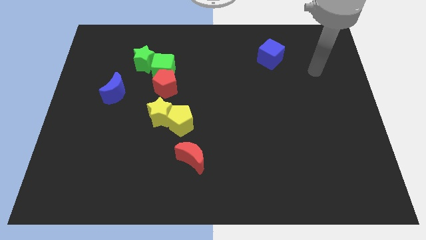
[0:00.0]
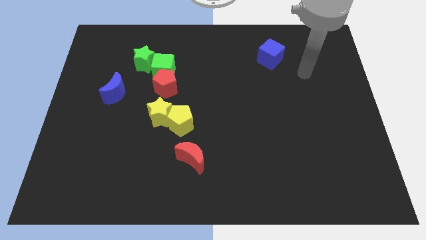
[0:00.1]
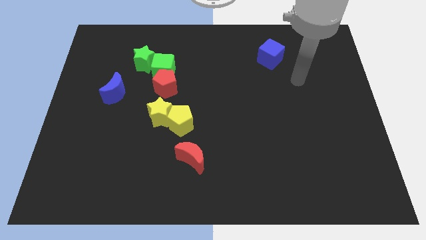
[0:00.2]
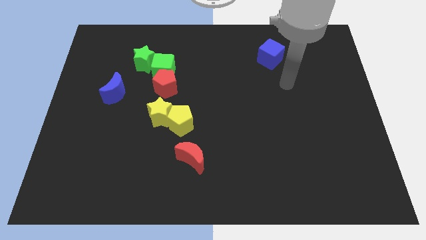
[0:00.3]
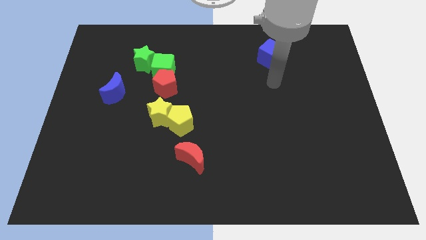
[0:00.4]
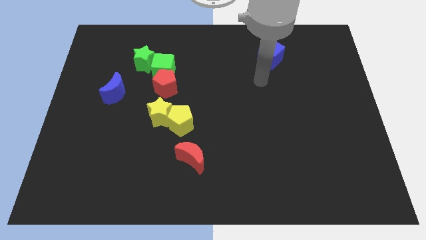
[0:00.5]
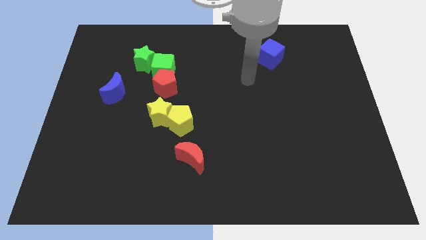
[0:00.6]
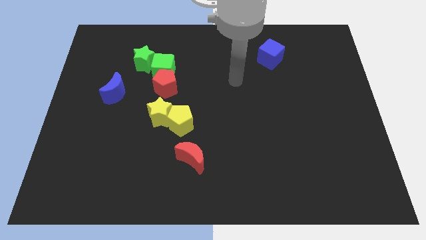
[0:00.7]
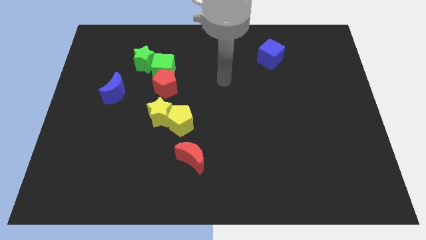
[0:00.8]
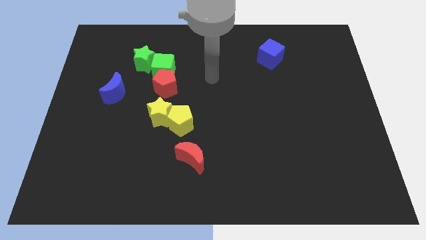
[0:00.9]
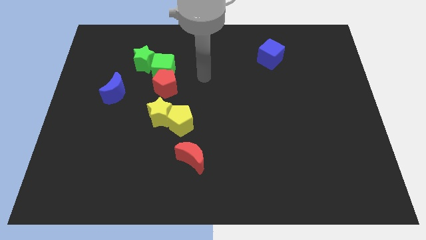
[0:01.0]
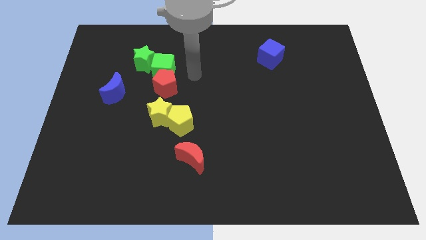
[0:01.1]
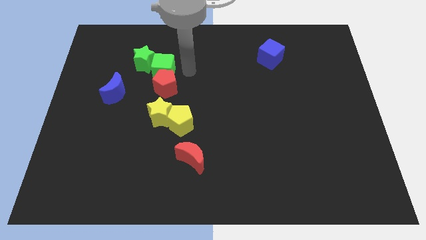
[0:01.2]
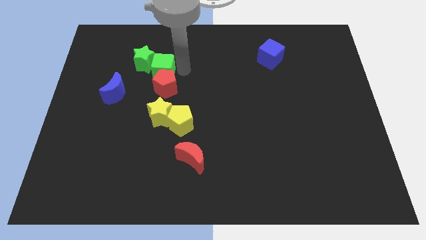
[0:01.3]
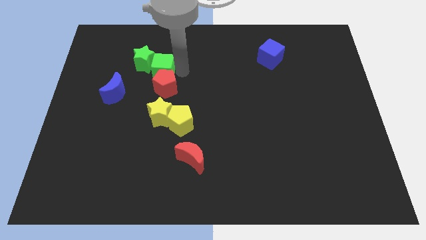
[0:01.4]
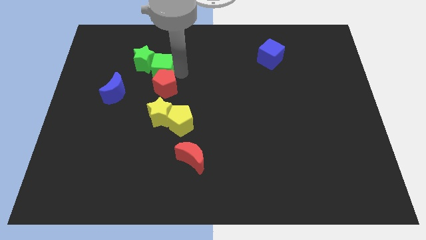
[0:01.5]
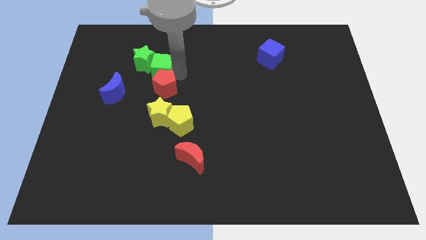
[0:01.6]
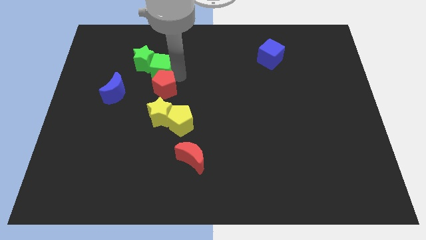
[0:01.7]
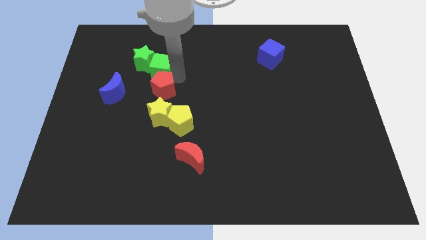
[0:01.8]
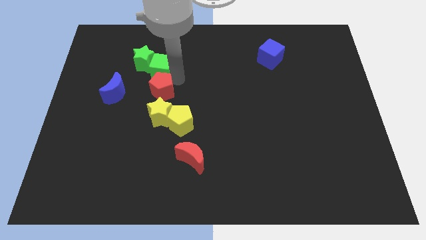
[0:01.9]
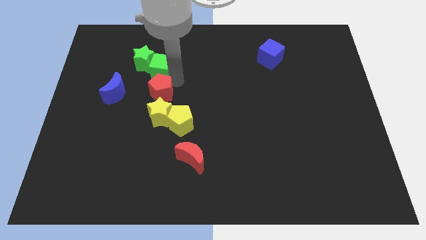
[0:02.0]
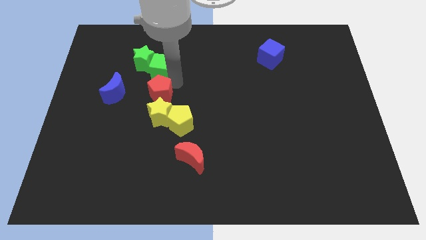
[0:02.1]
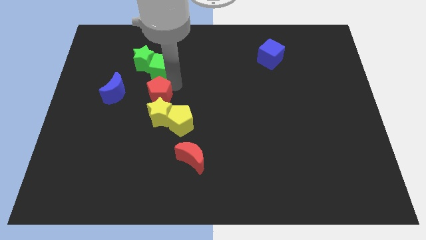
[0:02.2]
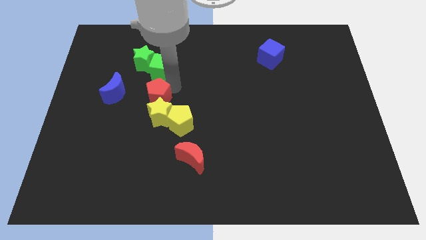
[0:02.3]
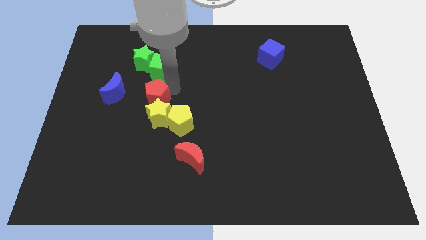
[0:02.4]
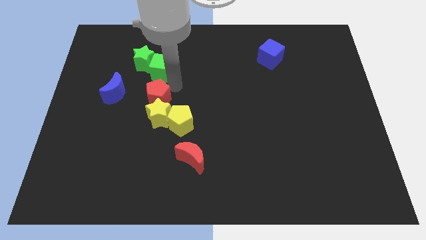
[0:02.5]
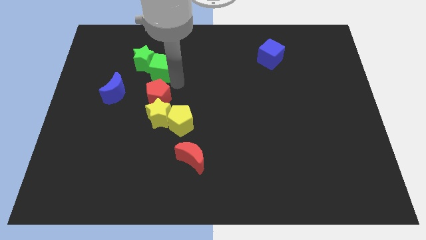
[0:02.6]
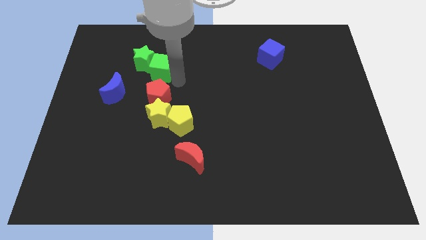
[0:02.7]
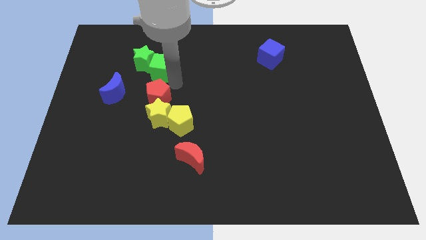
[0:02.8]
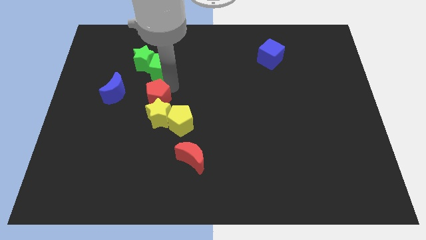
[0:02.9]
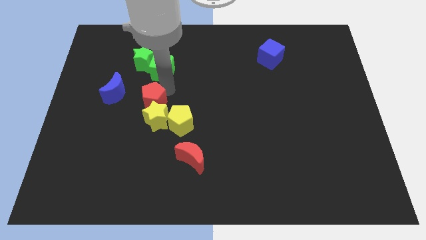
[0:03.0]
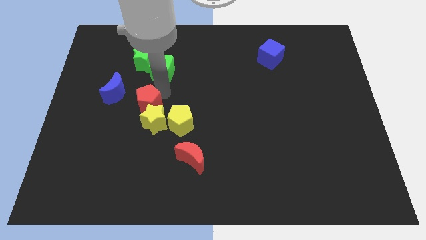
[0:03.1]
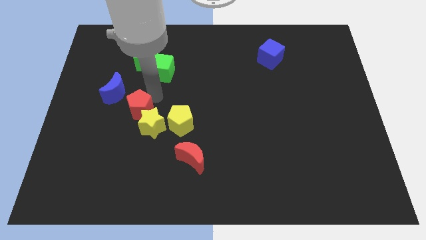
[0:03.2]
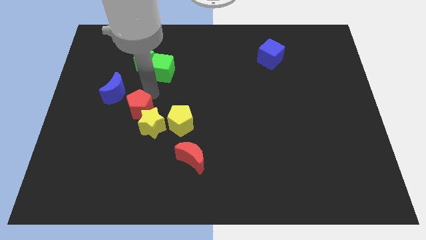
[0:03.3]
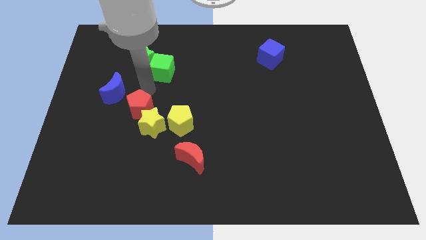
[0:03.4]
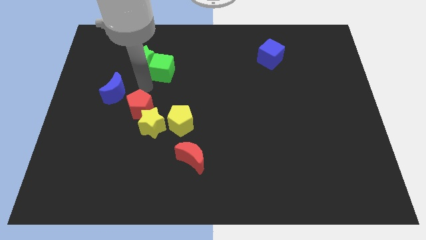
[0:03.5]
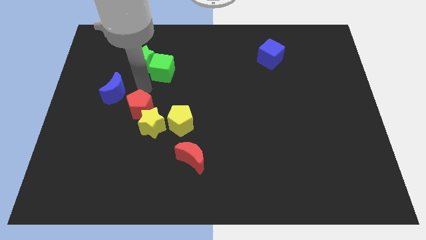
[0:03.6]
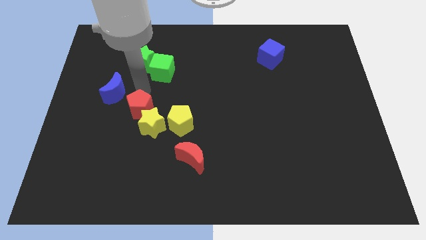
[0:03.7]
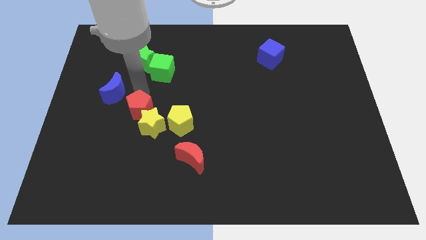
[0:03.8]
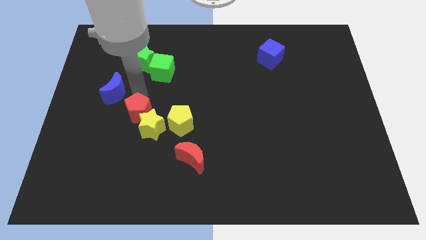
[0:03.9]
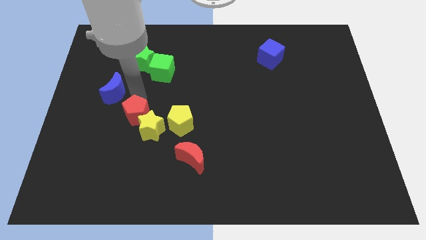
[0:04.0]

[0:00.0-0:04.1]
slightly push the red pentagon downwards

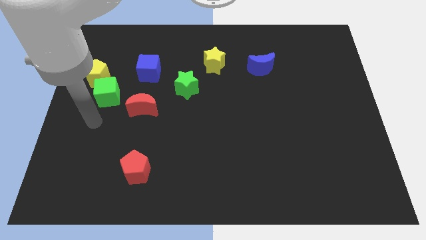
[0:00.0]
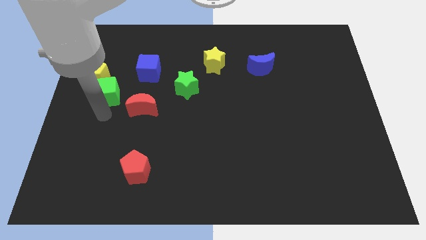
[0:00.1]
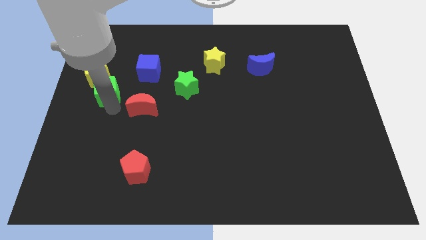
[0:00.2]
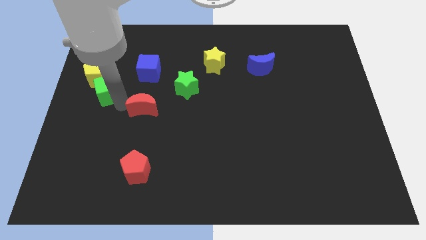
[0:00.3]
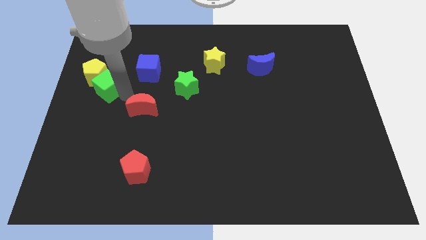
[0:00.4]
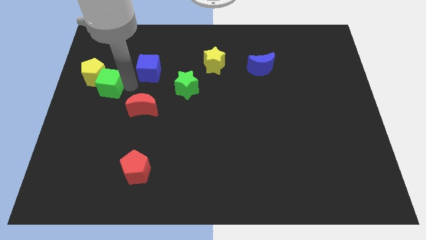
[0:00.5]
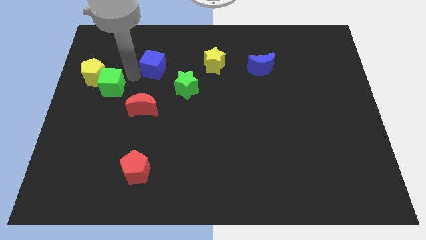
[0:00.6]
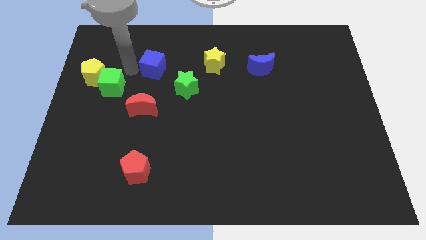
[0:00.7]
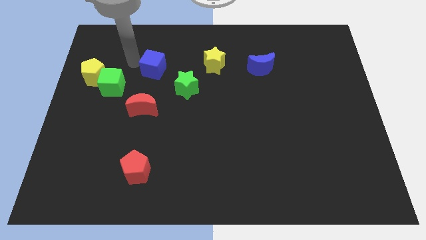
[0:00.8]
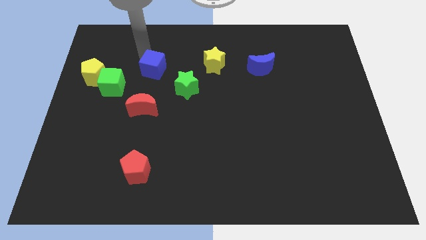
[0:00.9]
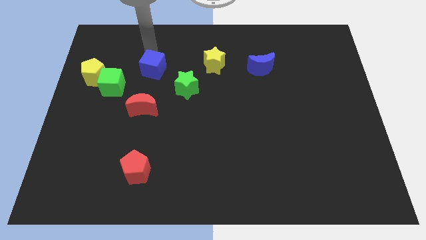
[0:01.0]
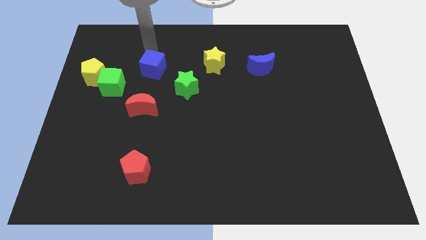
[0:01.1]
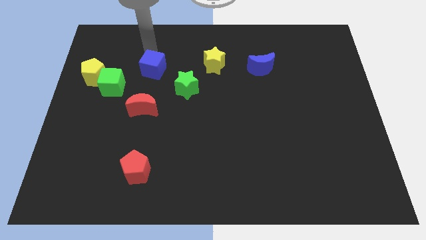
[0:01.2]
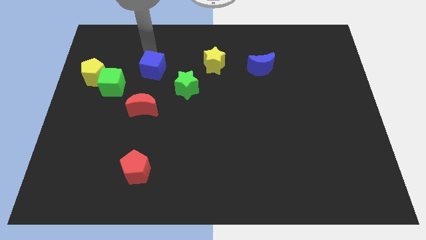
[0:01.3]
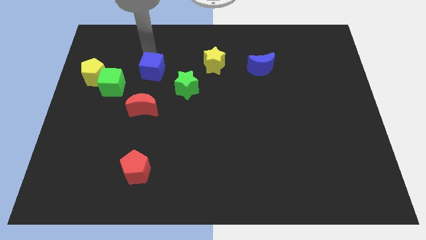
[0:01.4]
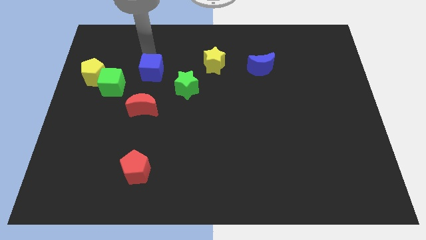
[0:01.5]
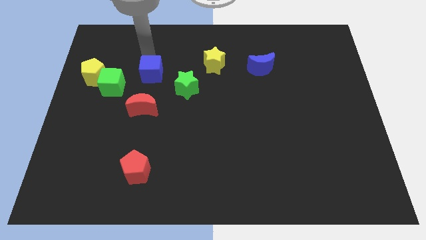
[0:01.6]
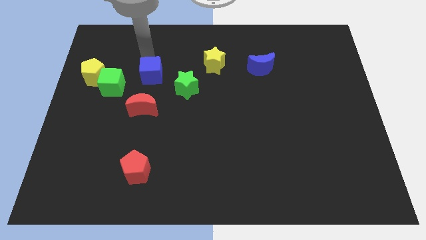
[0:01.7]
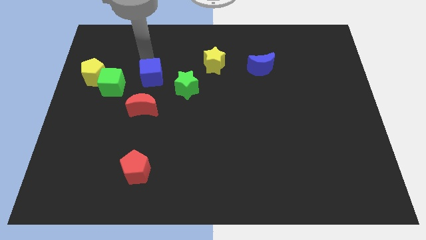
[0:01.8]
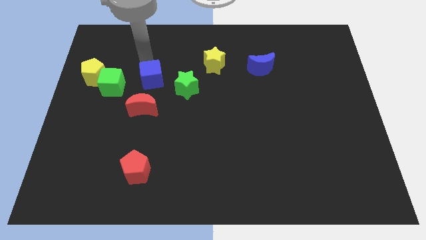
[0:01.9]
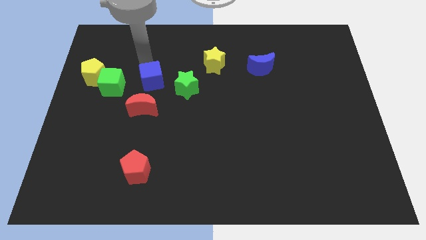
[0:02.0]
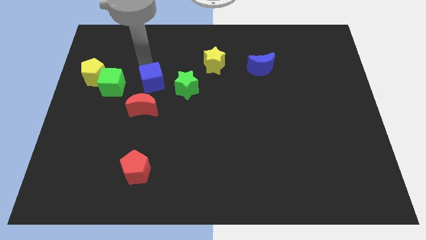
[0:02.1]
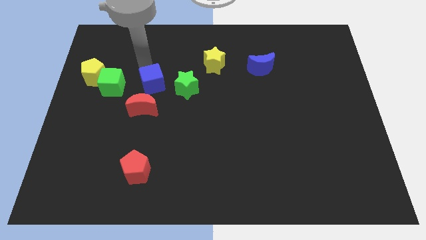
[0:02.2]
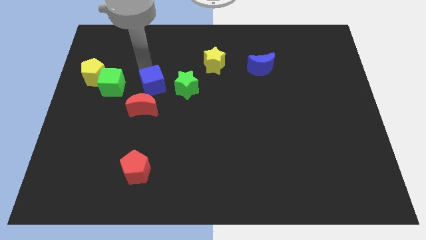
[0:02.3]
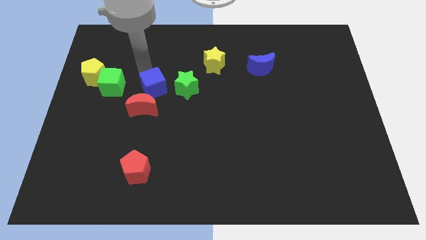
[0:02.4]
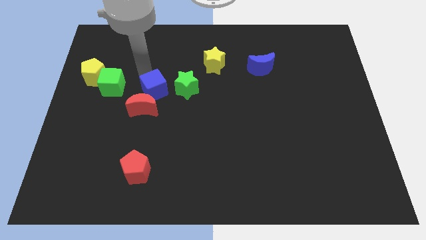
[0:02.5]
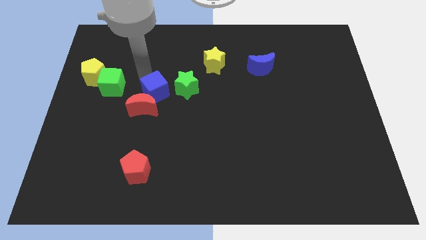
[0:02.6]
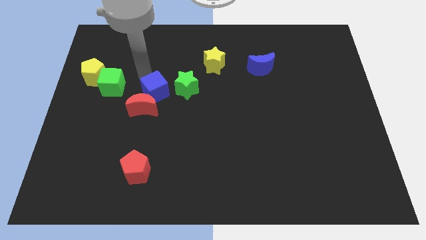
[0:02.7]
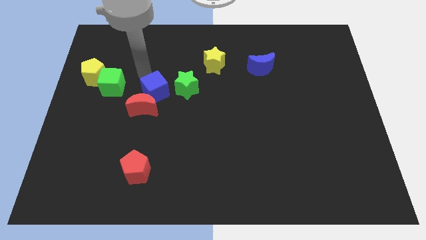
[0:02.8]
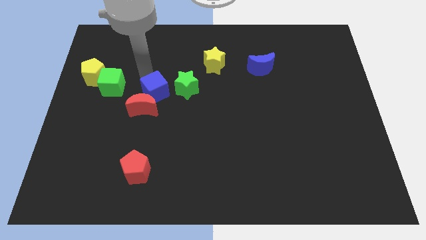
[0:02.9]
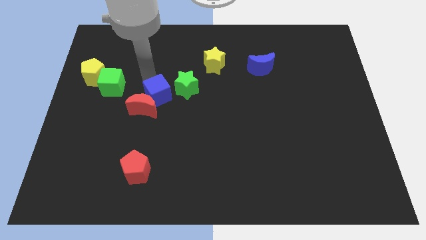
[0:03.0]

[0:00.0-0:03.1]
push the blue cube diagonally down and right a little

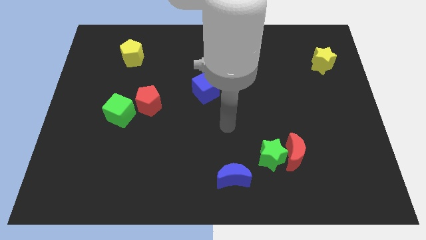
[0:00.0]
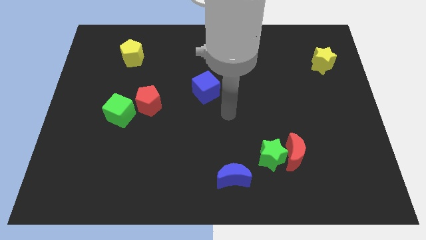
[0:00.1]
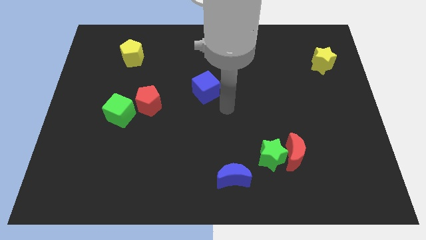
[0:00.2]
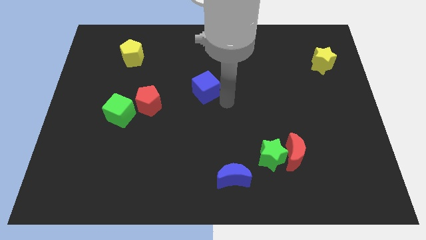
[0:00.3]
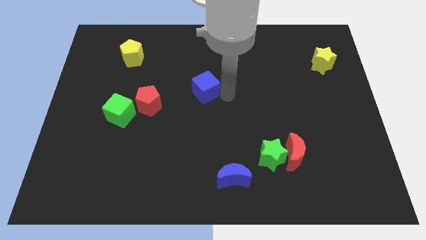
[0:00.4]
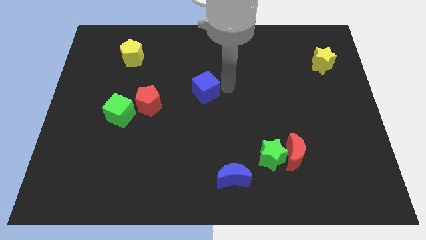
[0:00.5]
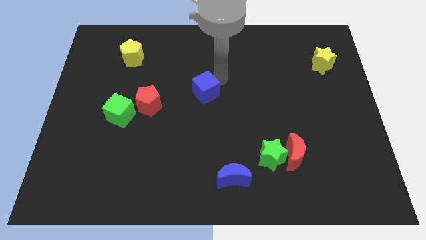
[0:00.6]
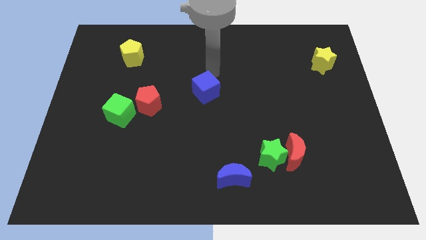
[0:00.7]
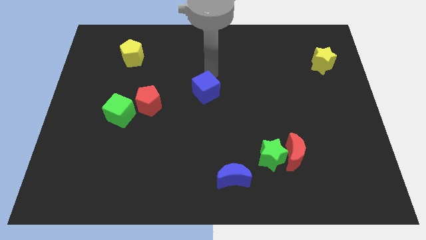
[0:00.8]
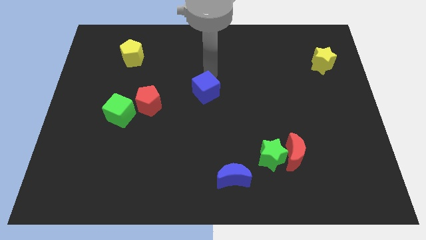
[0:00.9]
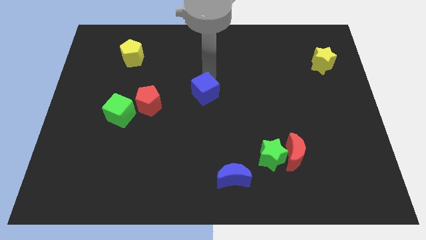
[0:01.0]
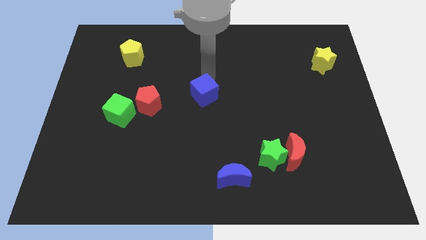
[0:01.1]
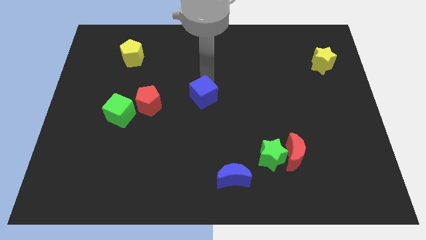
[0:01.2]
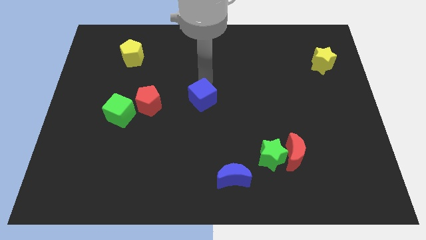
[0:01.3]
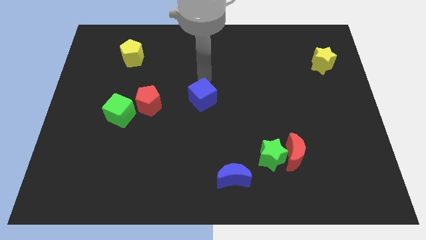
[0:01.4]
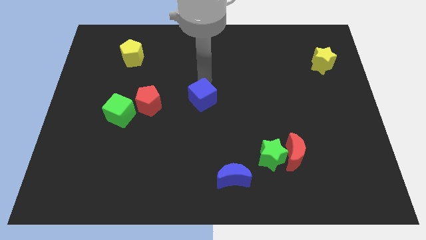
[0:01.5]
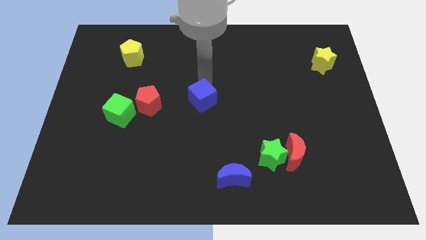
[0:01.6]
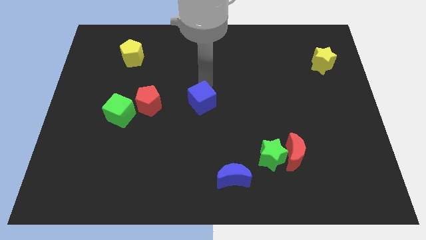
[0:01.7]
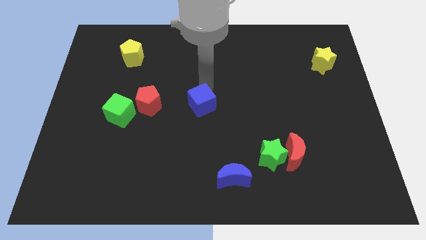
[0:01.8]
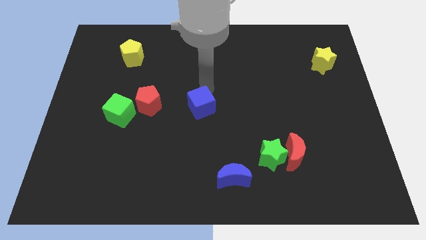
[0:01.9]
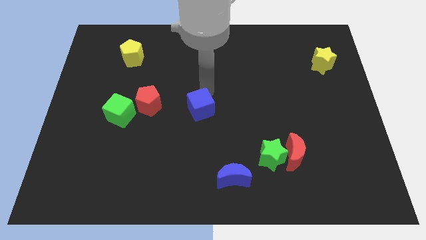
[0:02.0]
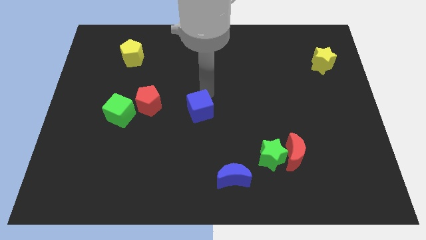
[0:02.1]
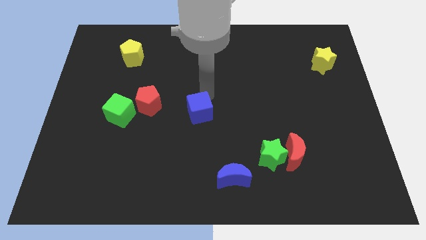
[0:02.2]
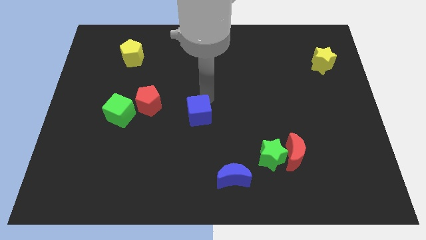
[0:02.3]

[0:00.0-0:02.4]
slide the blue cube down slightly
